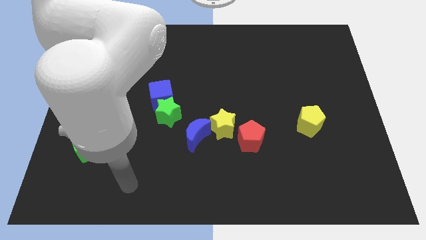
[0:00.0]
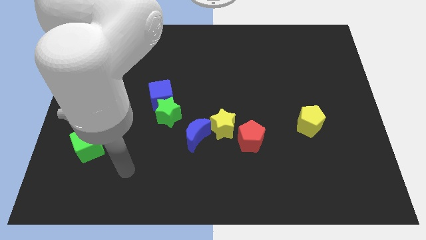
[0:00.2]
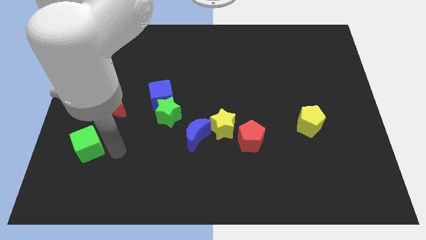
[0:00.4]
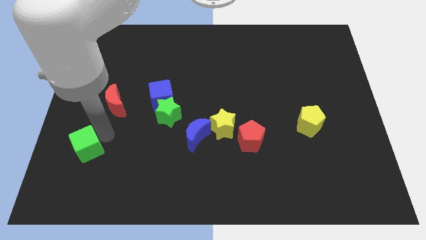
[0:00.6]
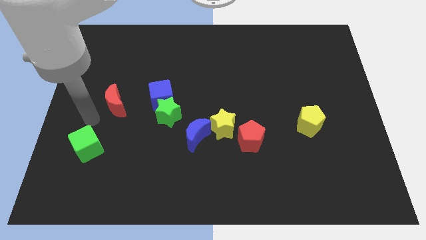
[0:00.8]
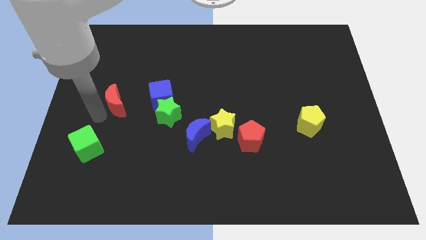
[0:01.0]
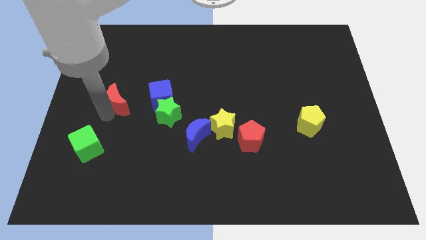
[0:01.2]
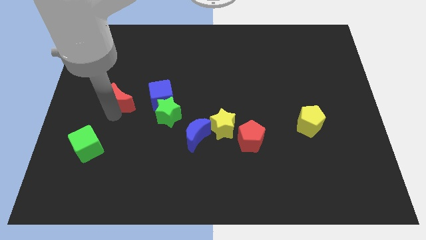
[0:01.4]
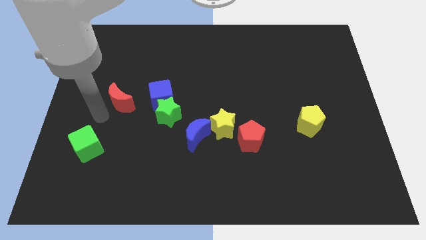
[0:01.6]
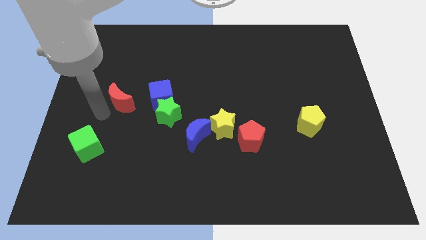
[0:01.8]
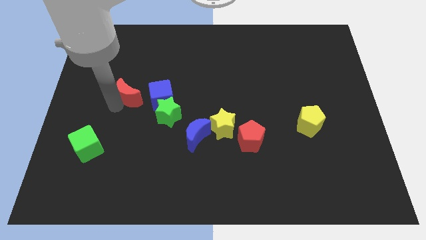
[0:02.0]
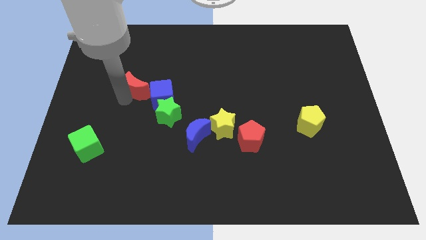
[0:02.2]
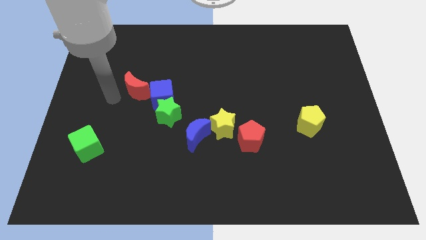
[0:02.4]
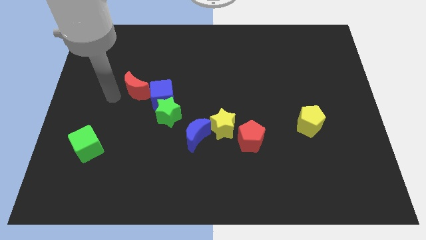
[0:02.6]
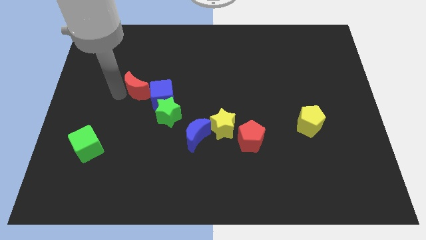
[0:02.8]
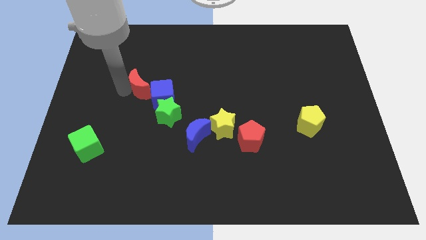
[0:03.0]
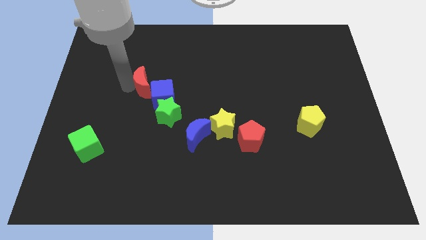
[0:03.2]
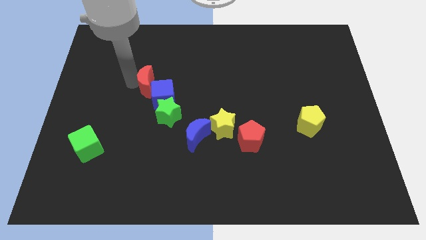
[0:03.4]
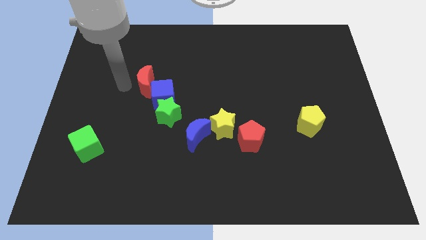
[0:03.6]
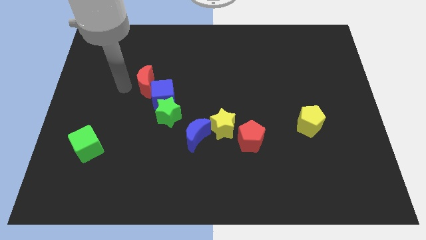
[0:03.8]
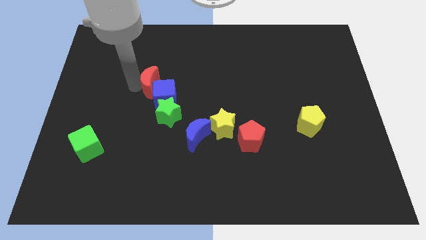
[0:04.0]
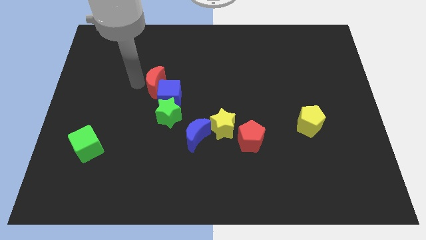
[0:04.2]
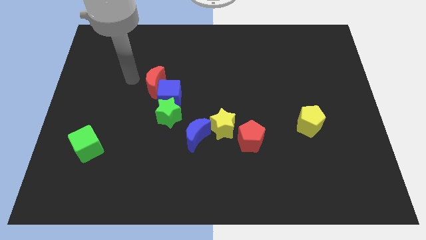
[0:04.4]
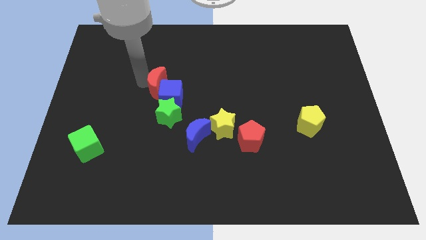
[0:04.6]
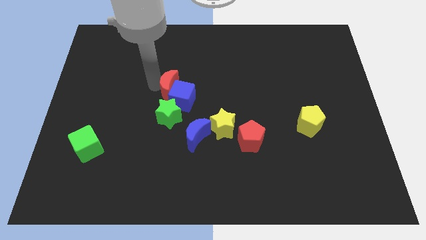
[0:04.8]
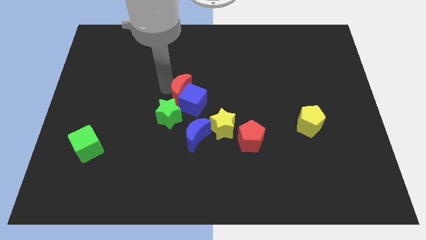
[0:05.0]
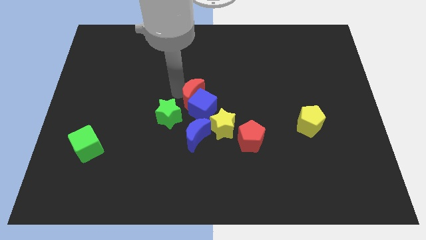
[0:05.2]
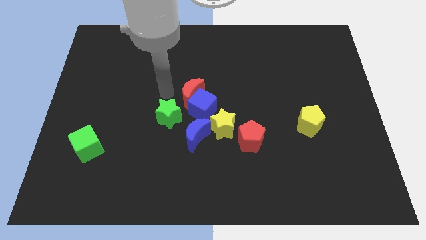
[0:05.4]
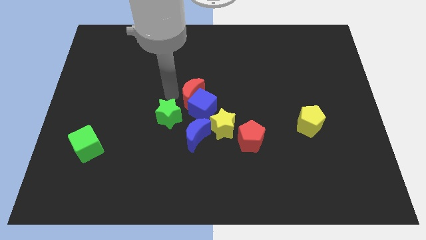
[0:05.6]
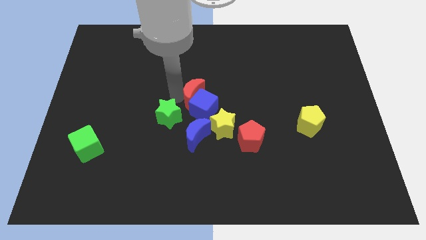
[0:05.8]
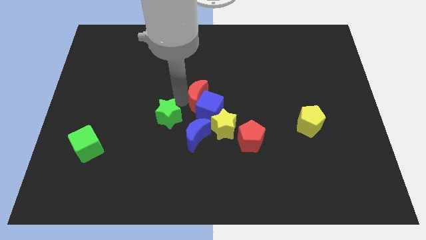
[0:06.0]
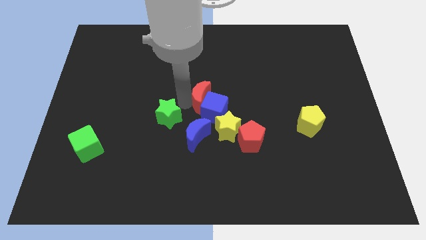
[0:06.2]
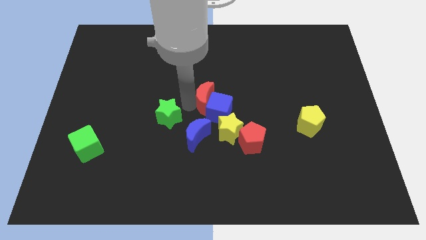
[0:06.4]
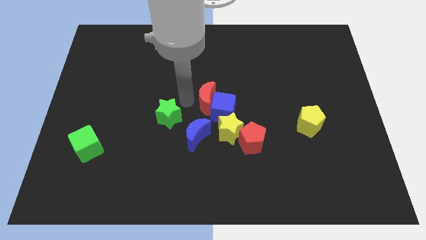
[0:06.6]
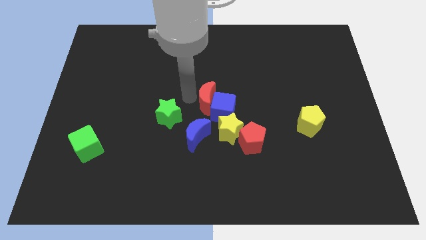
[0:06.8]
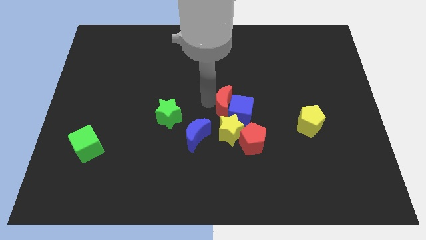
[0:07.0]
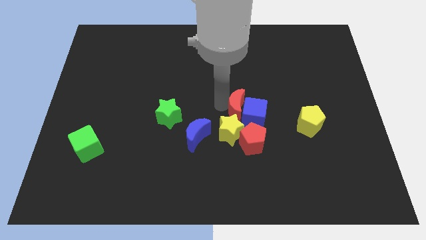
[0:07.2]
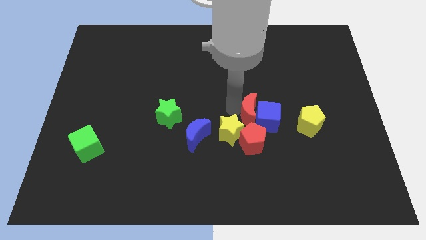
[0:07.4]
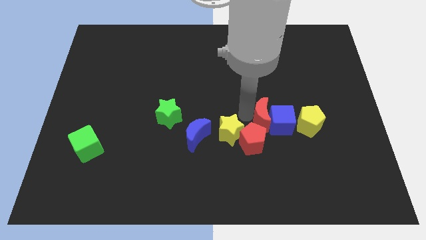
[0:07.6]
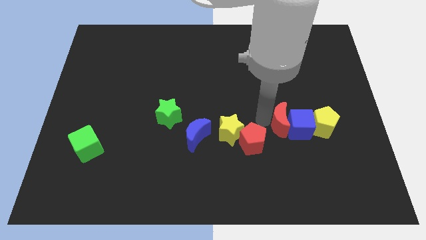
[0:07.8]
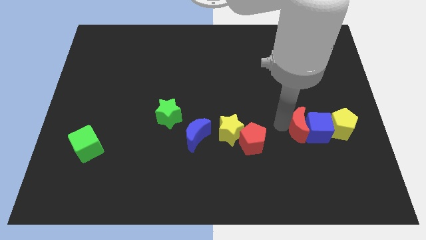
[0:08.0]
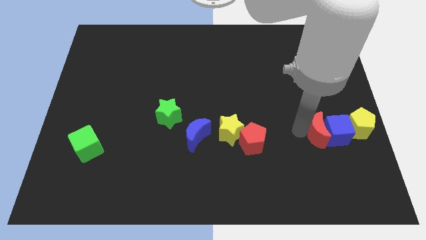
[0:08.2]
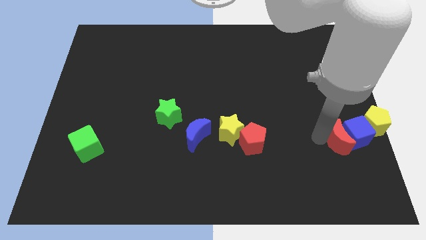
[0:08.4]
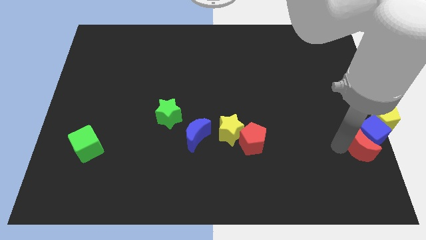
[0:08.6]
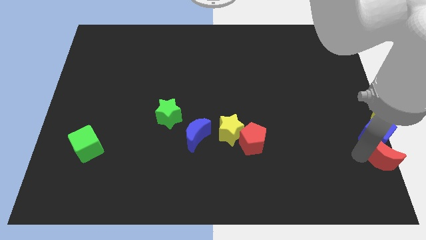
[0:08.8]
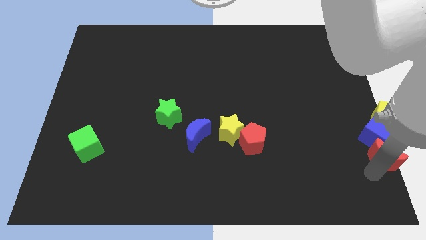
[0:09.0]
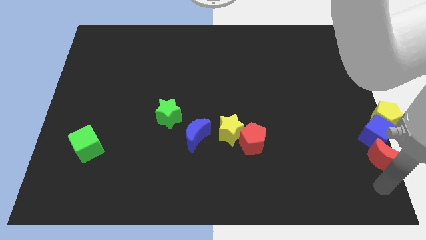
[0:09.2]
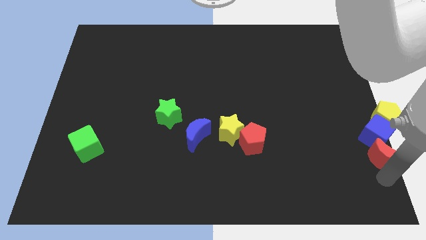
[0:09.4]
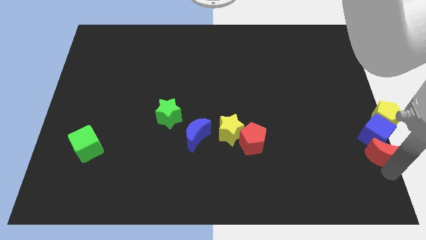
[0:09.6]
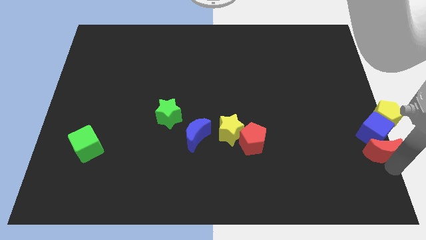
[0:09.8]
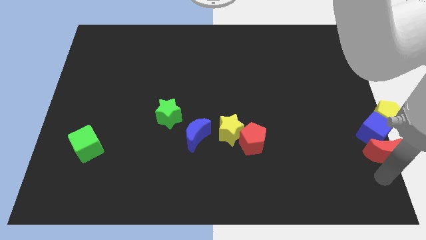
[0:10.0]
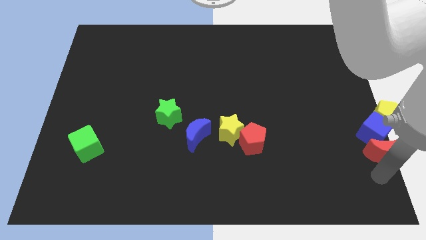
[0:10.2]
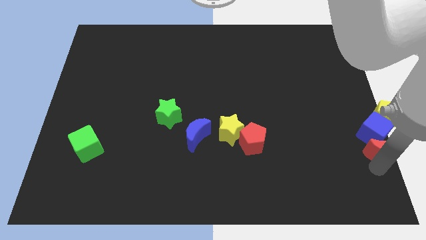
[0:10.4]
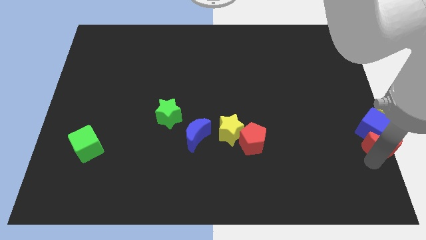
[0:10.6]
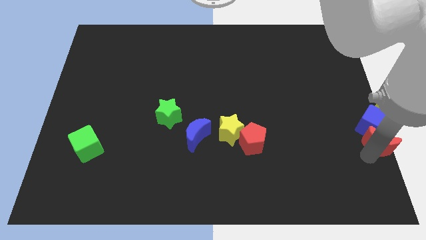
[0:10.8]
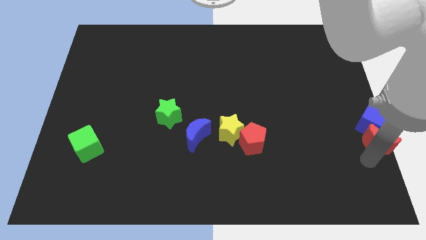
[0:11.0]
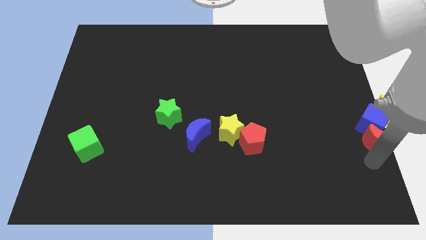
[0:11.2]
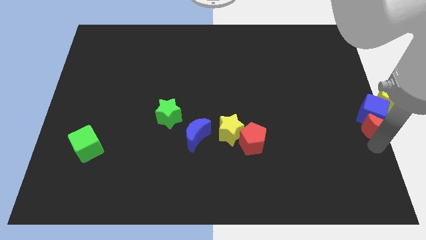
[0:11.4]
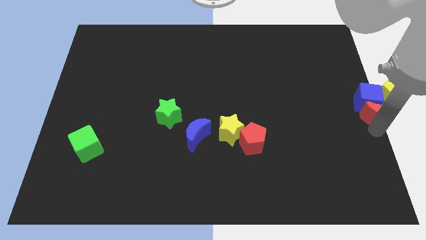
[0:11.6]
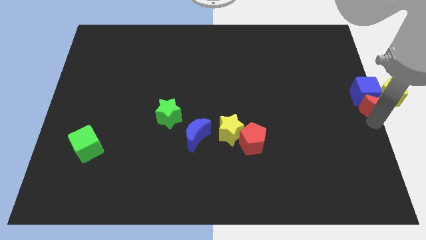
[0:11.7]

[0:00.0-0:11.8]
put the red moon to the yellow pentagon
